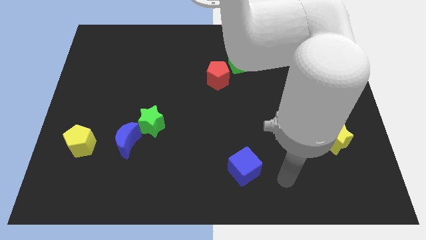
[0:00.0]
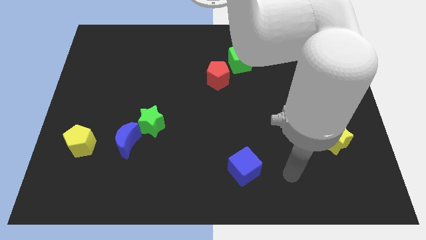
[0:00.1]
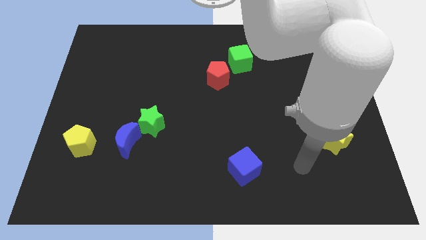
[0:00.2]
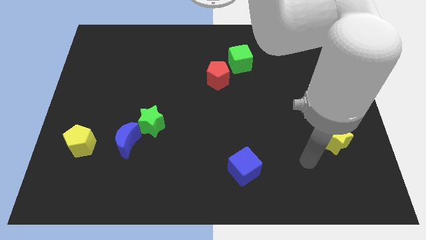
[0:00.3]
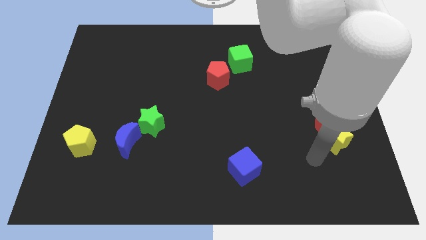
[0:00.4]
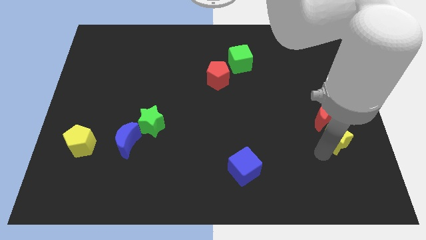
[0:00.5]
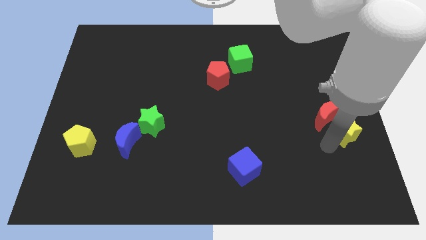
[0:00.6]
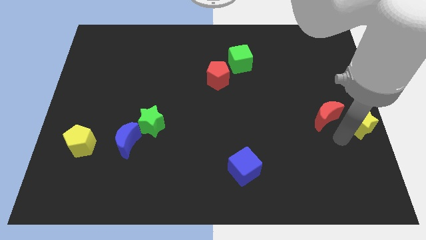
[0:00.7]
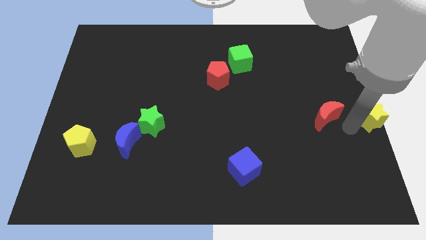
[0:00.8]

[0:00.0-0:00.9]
separate the red moon from the yellow star

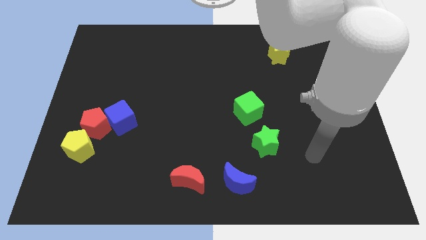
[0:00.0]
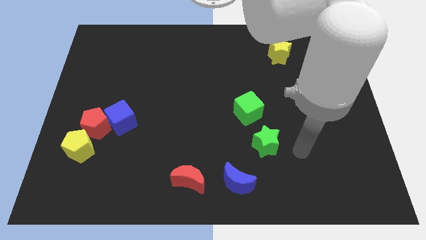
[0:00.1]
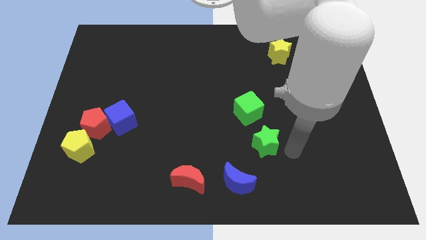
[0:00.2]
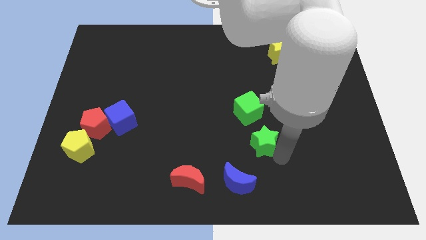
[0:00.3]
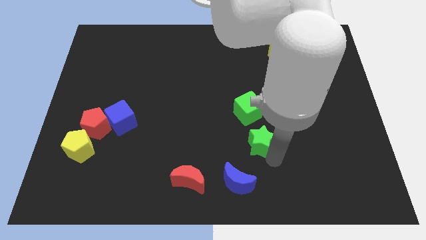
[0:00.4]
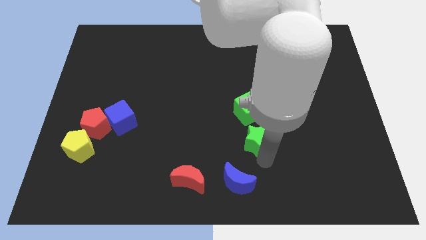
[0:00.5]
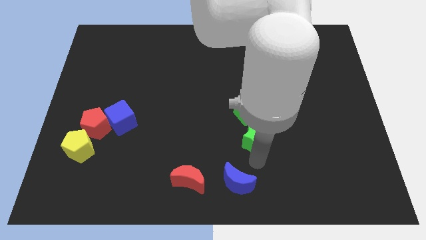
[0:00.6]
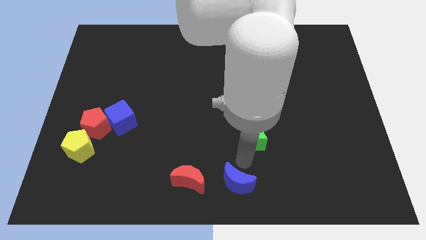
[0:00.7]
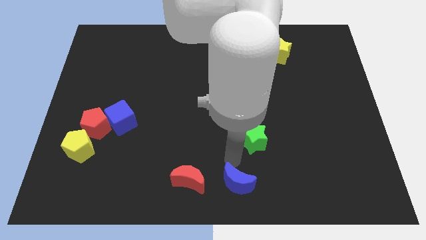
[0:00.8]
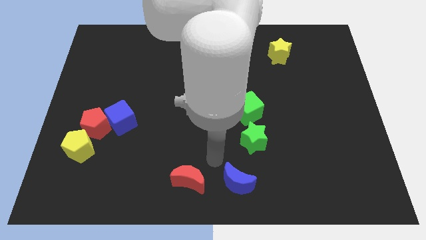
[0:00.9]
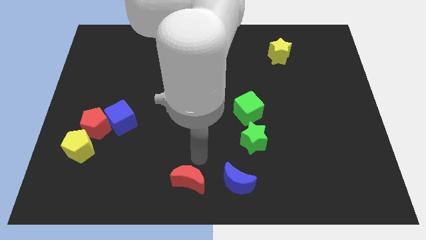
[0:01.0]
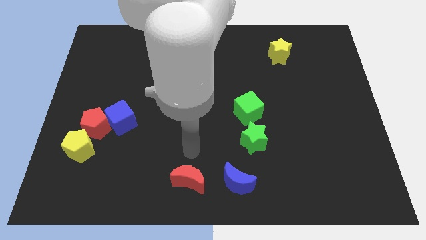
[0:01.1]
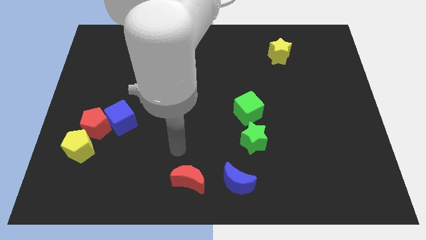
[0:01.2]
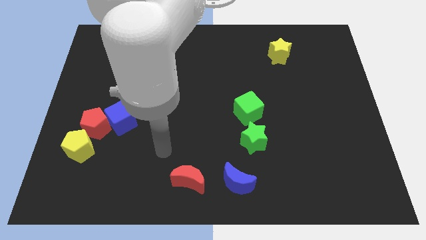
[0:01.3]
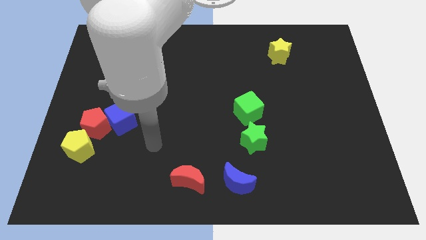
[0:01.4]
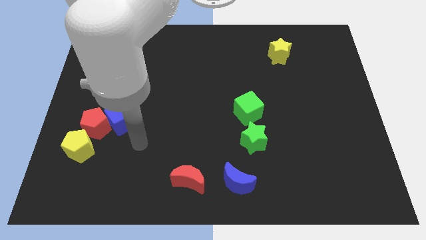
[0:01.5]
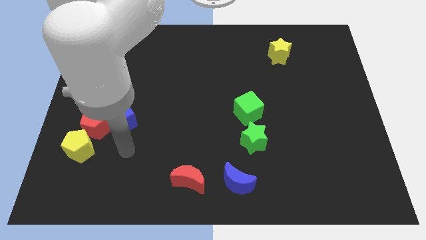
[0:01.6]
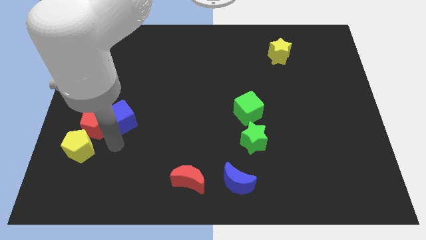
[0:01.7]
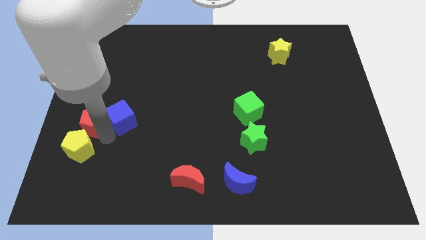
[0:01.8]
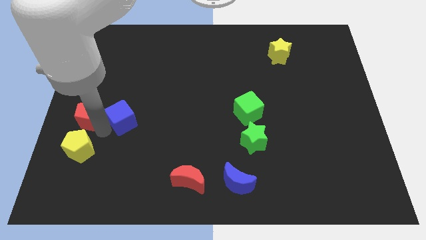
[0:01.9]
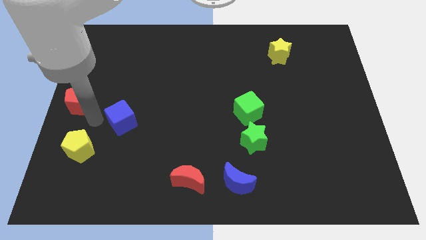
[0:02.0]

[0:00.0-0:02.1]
separate the blue cube from the red pentagon

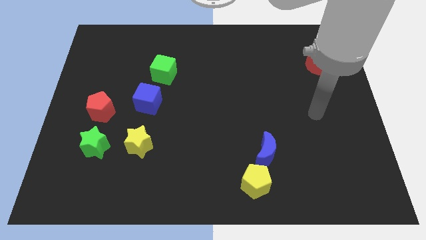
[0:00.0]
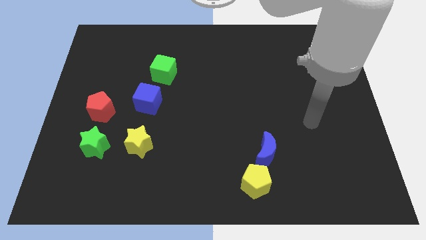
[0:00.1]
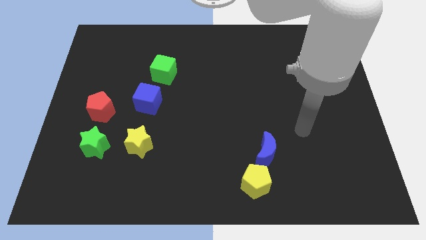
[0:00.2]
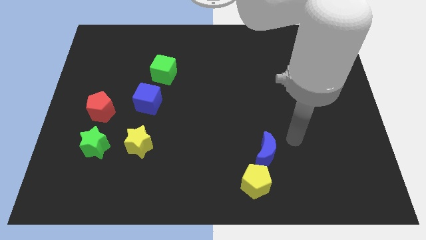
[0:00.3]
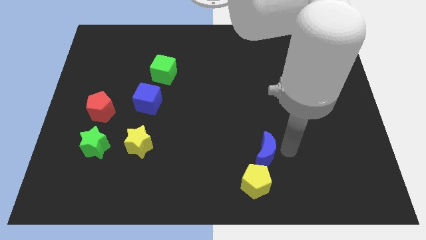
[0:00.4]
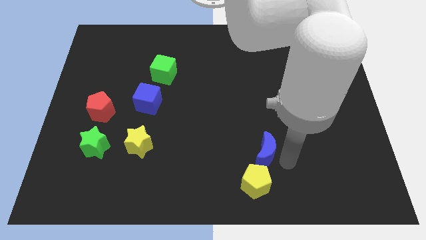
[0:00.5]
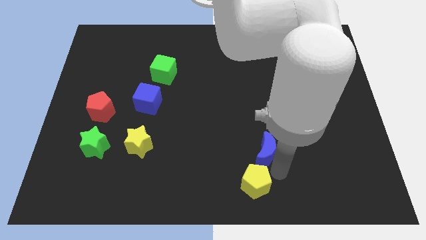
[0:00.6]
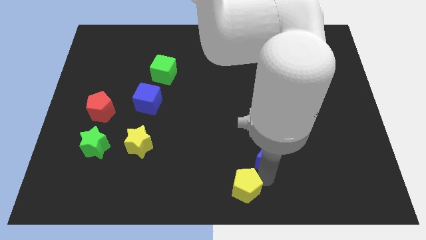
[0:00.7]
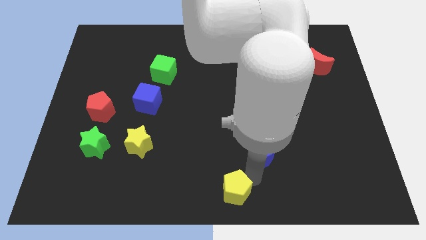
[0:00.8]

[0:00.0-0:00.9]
move the blue moon away from the yellow pentagon

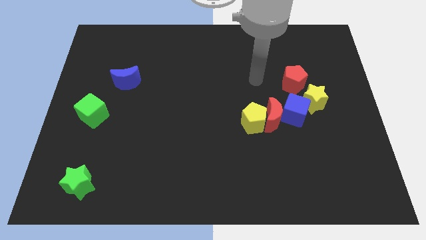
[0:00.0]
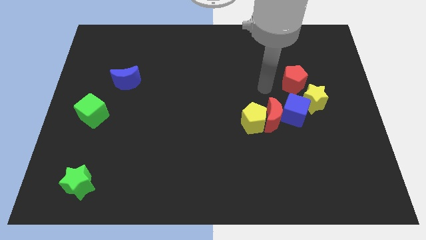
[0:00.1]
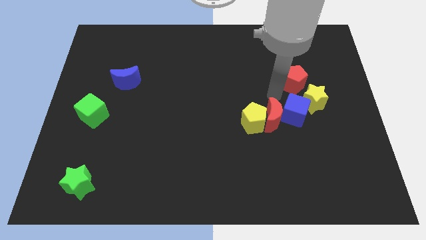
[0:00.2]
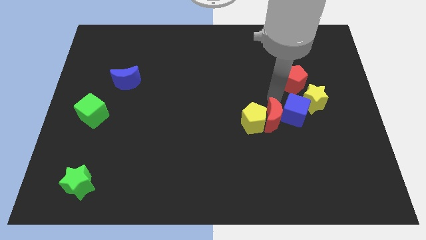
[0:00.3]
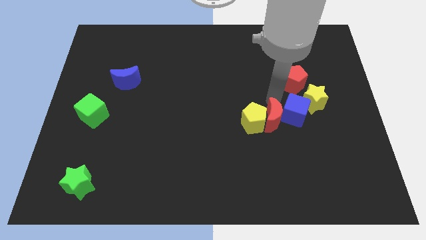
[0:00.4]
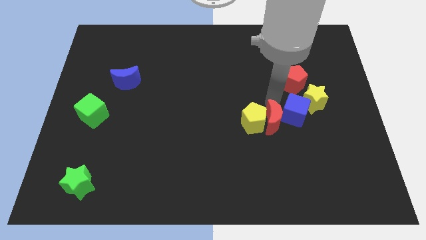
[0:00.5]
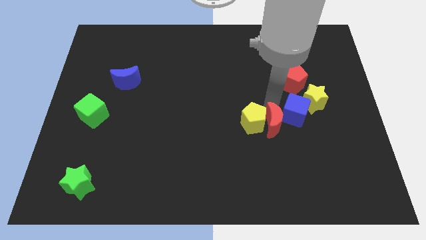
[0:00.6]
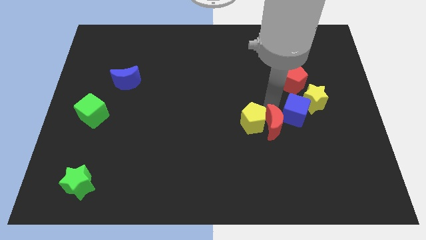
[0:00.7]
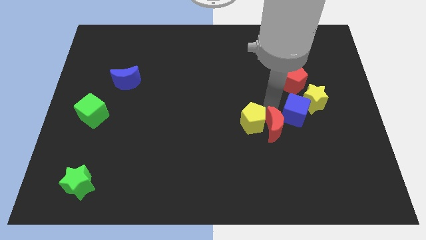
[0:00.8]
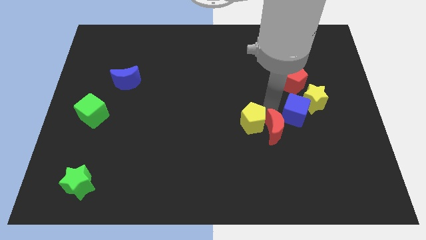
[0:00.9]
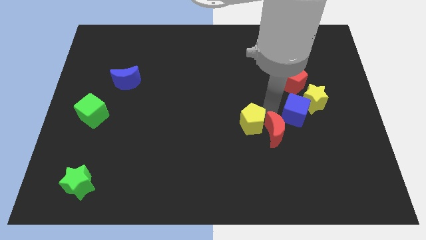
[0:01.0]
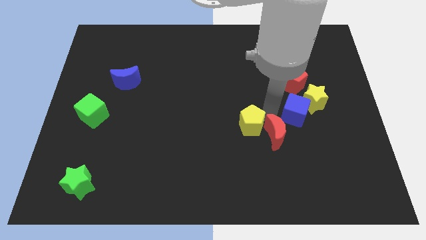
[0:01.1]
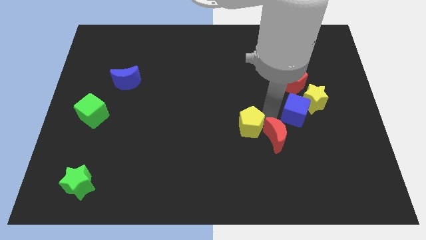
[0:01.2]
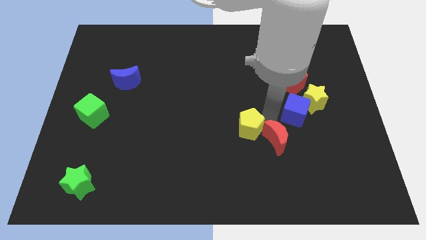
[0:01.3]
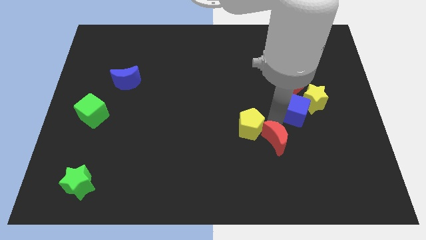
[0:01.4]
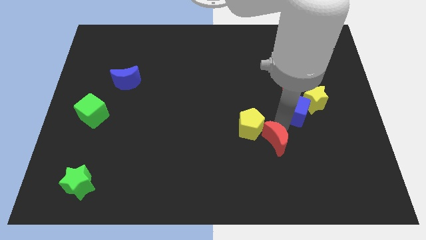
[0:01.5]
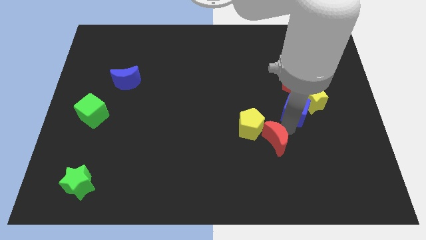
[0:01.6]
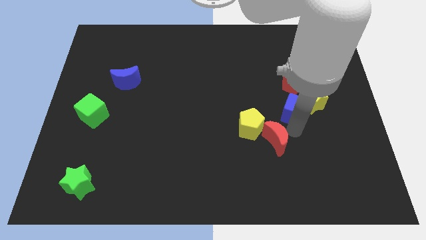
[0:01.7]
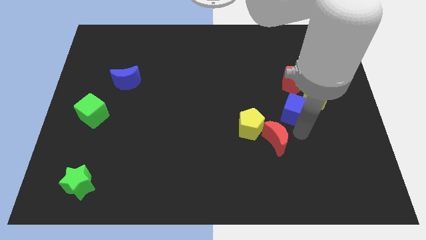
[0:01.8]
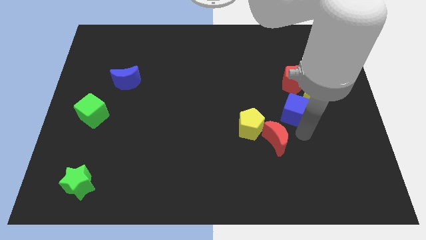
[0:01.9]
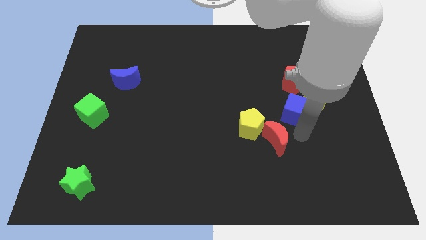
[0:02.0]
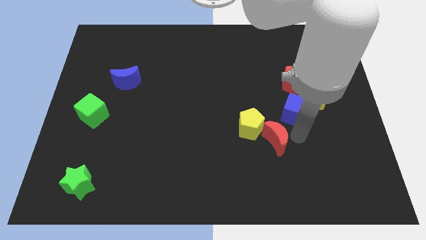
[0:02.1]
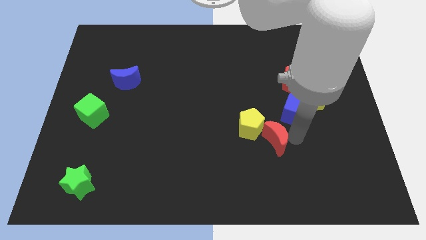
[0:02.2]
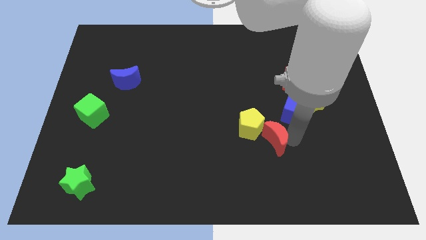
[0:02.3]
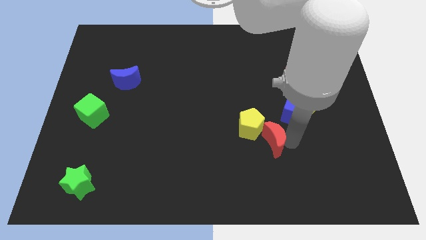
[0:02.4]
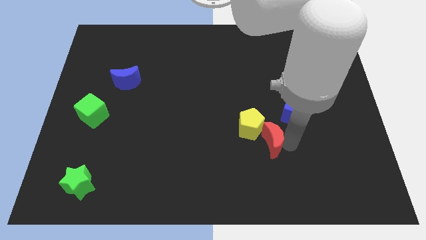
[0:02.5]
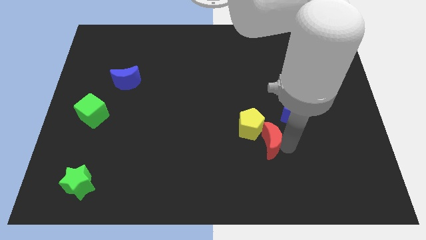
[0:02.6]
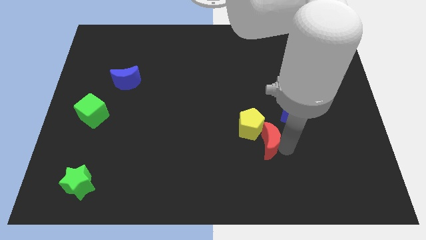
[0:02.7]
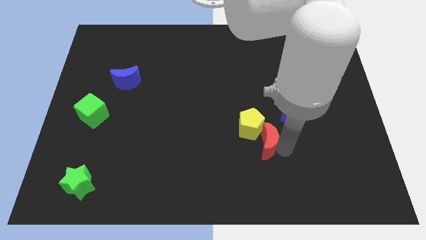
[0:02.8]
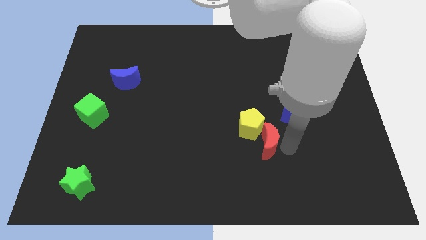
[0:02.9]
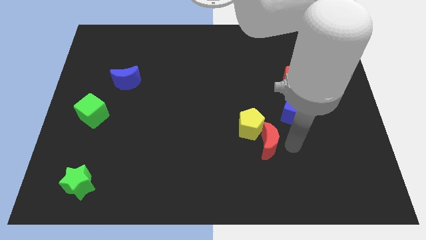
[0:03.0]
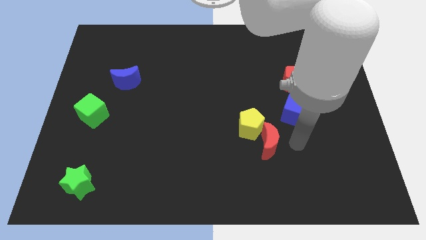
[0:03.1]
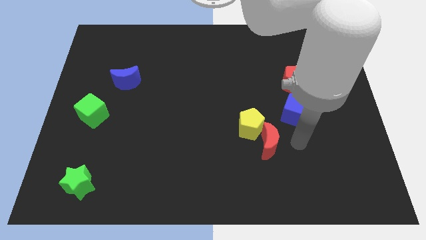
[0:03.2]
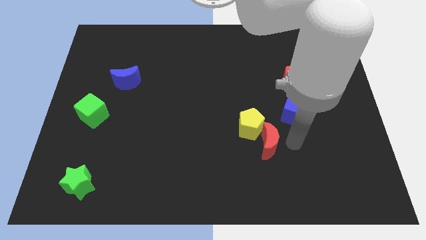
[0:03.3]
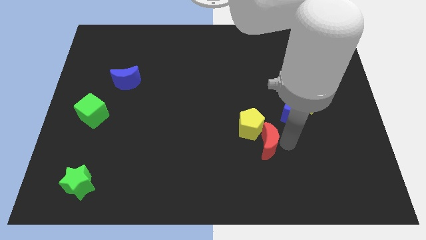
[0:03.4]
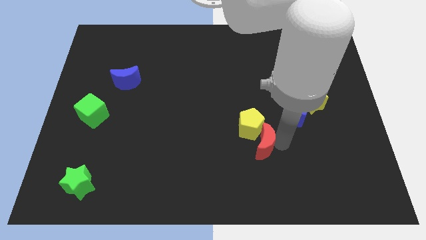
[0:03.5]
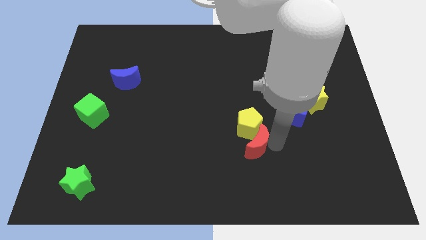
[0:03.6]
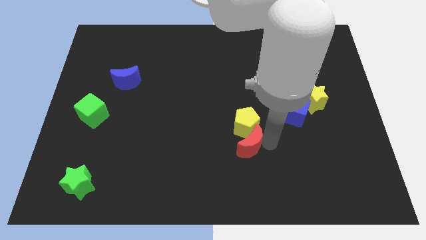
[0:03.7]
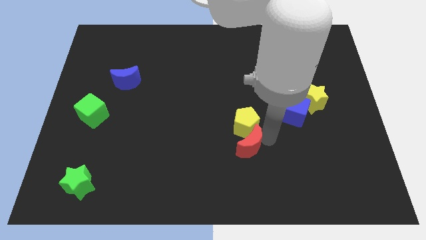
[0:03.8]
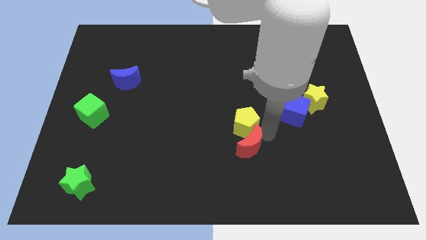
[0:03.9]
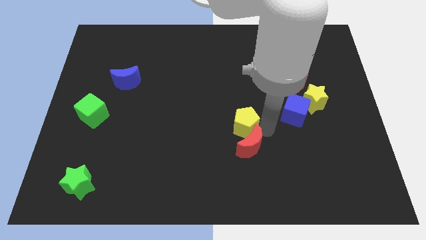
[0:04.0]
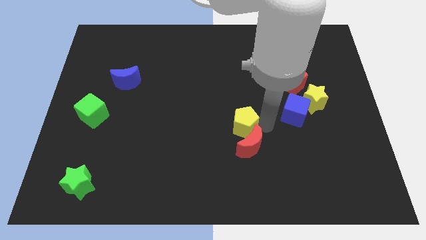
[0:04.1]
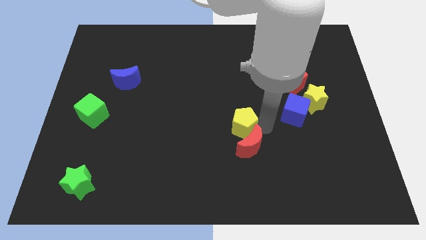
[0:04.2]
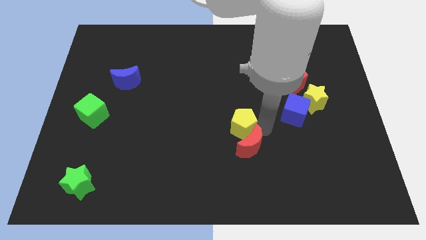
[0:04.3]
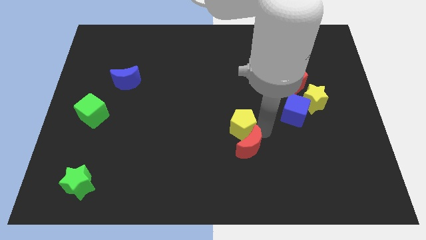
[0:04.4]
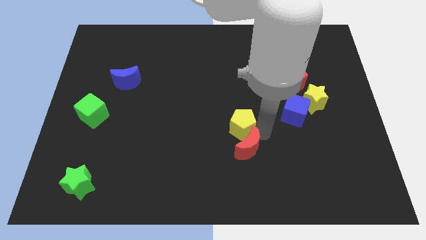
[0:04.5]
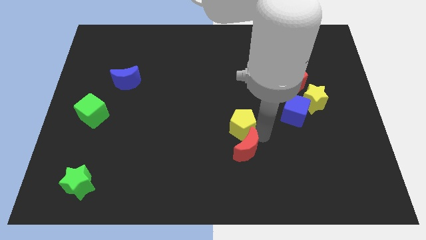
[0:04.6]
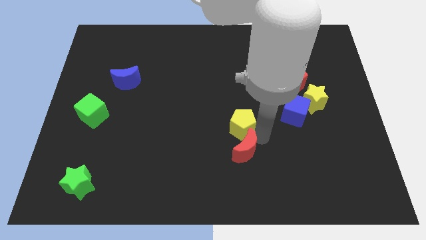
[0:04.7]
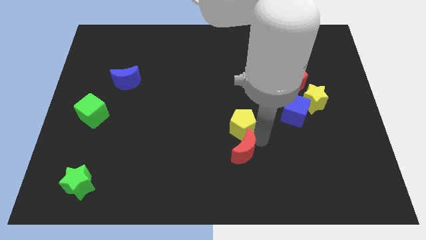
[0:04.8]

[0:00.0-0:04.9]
pull the red moon apart from the yellow pentagon and blue cube

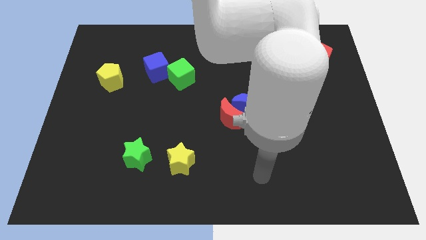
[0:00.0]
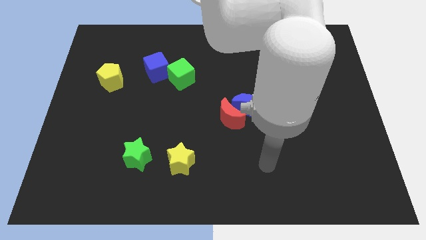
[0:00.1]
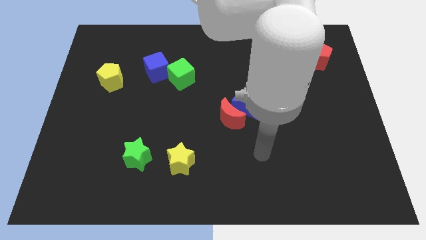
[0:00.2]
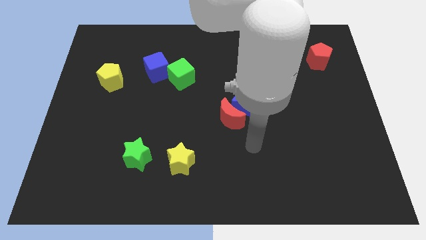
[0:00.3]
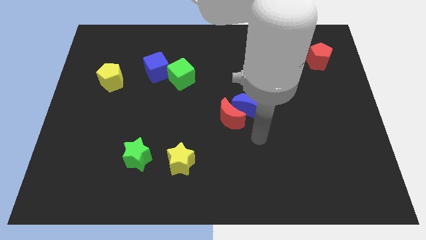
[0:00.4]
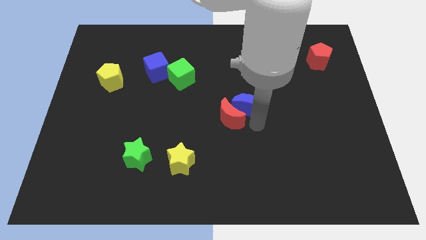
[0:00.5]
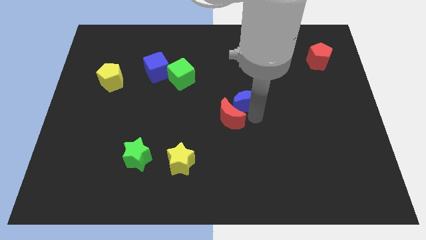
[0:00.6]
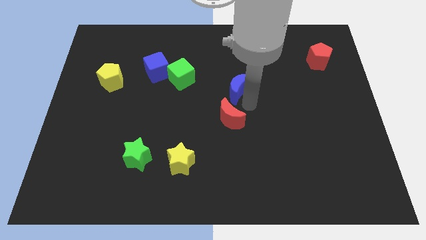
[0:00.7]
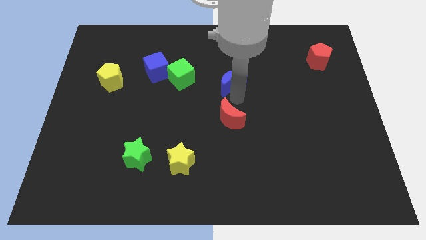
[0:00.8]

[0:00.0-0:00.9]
separate the red moon from the blue moon
